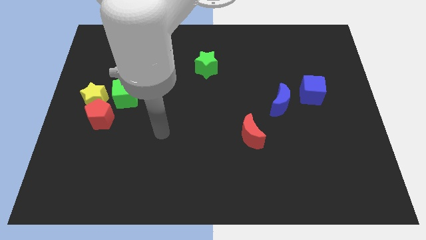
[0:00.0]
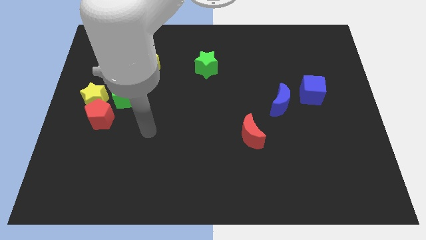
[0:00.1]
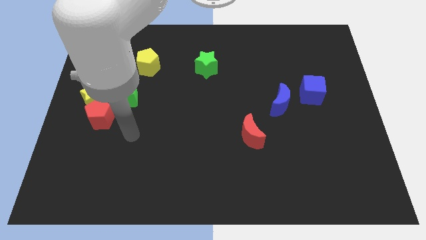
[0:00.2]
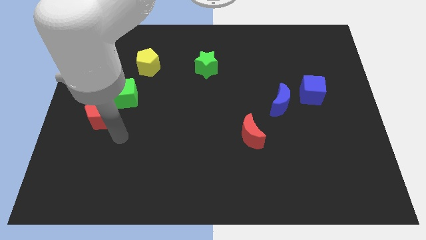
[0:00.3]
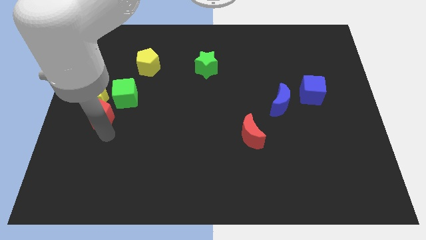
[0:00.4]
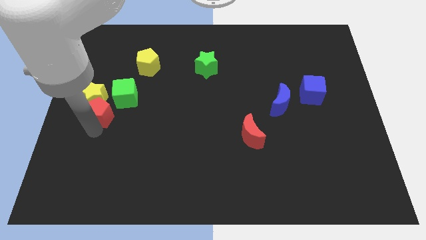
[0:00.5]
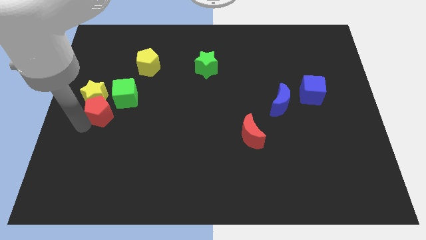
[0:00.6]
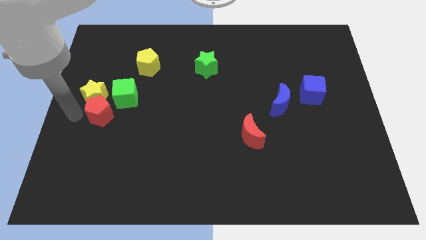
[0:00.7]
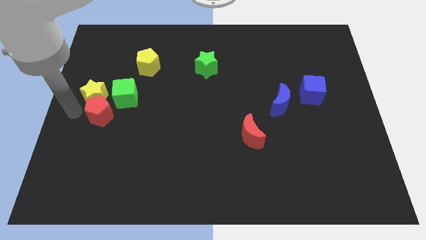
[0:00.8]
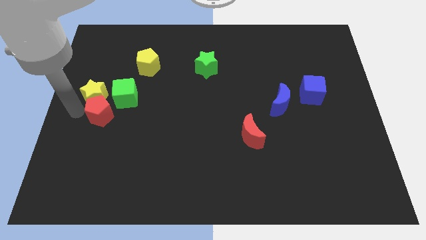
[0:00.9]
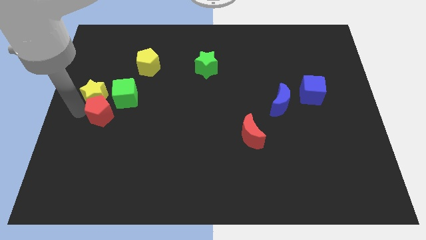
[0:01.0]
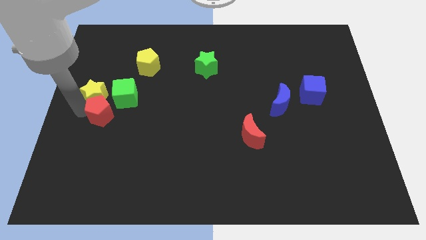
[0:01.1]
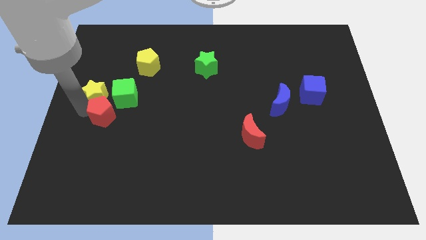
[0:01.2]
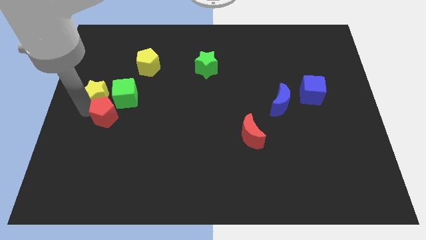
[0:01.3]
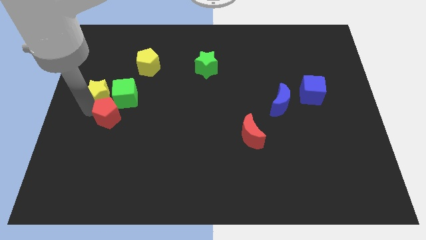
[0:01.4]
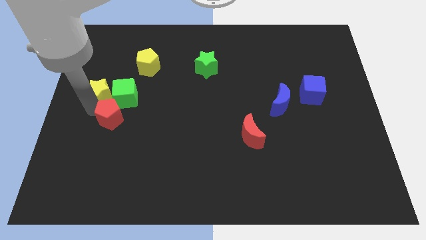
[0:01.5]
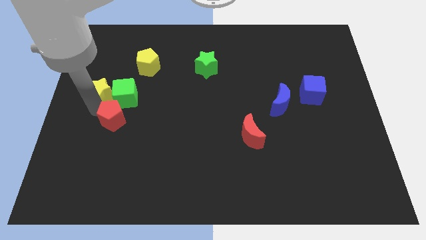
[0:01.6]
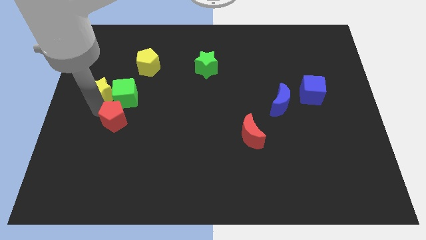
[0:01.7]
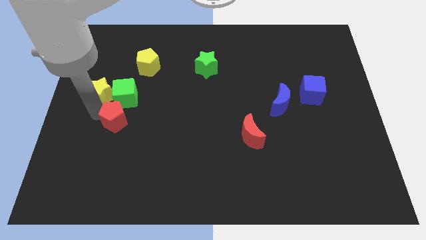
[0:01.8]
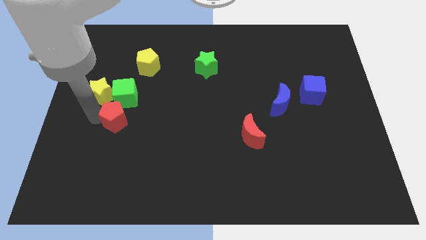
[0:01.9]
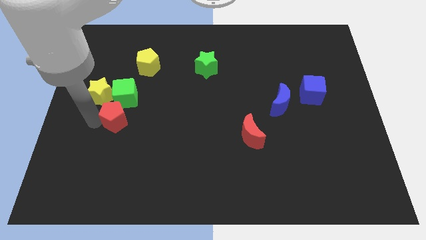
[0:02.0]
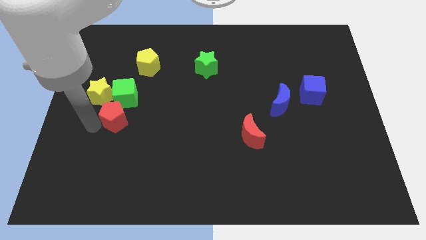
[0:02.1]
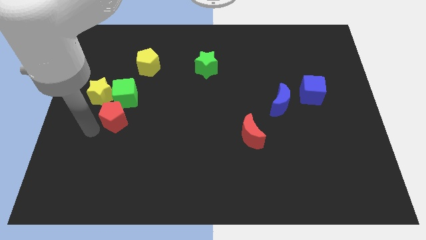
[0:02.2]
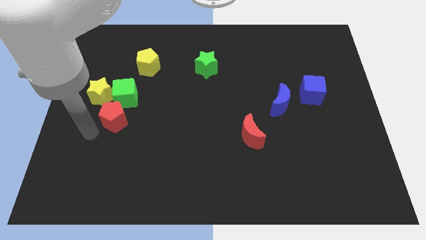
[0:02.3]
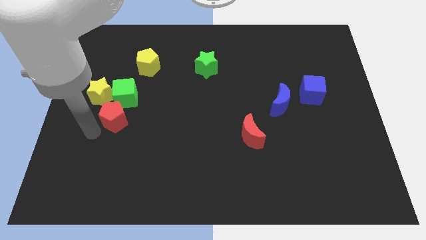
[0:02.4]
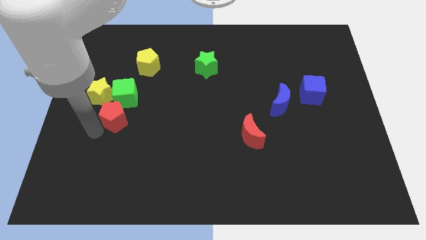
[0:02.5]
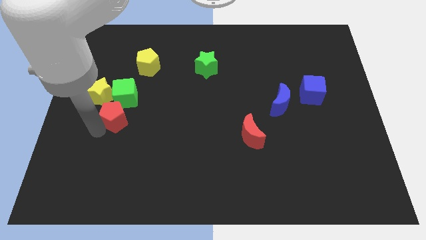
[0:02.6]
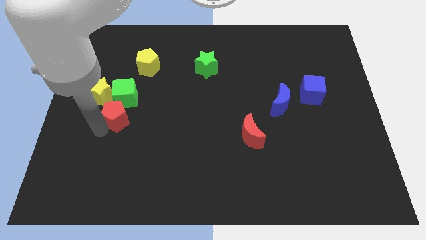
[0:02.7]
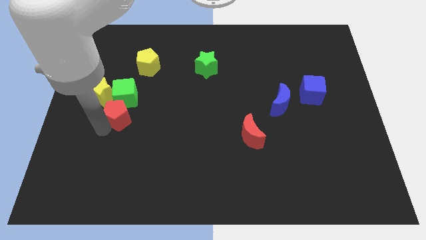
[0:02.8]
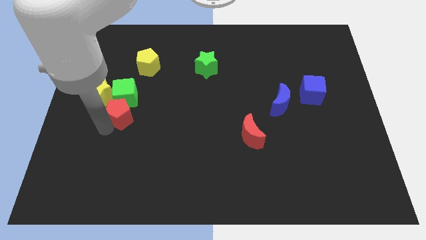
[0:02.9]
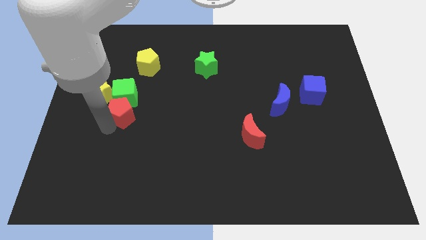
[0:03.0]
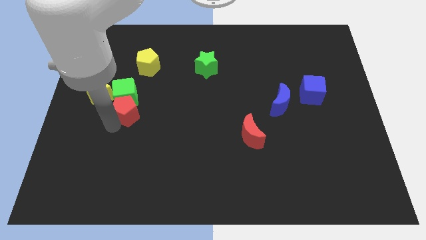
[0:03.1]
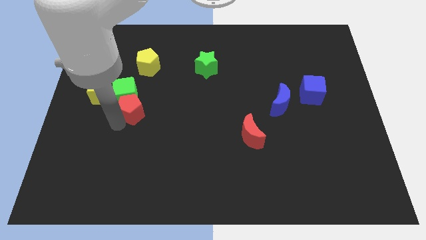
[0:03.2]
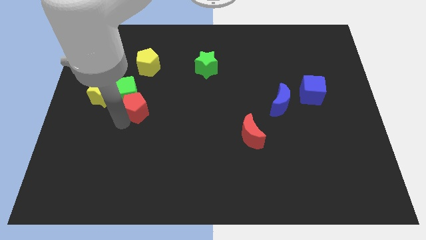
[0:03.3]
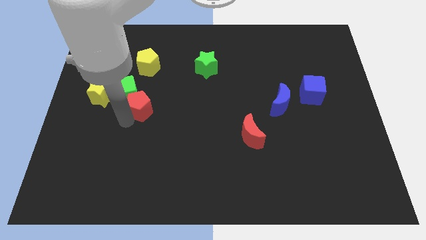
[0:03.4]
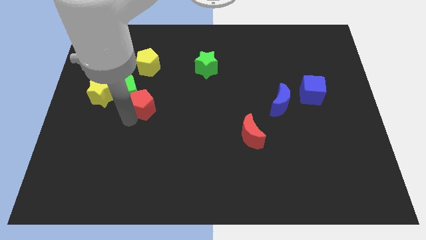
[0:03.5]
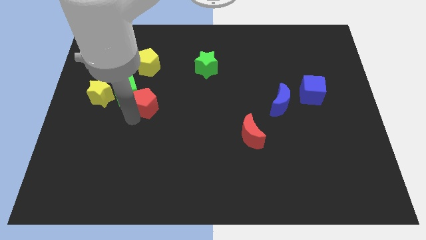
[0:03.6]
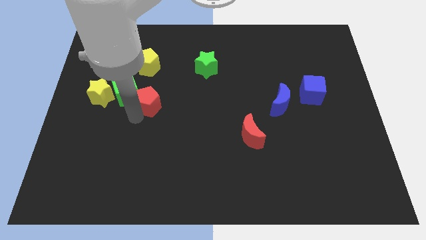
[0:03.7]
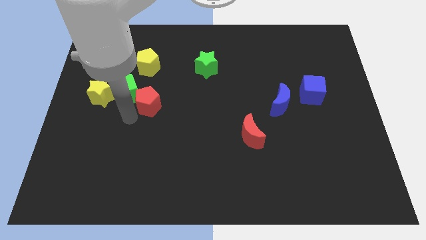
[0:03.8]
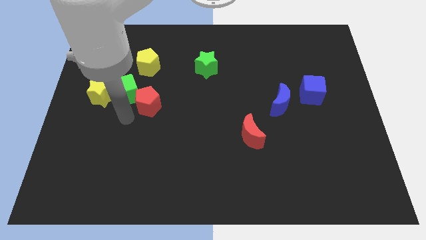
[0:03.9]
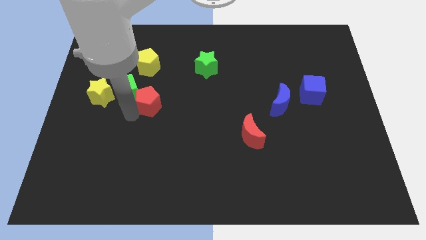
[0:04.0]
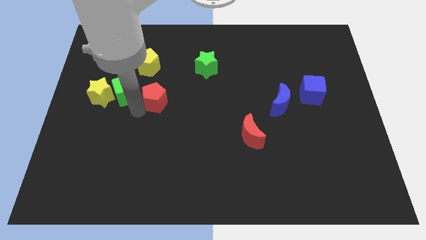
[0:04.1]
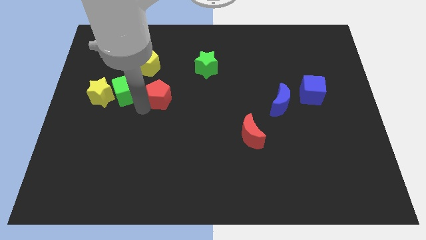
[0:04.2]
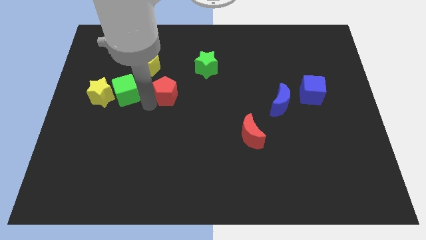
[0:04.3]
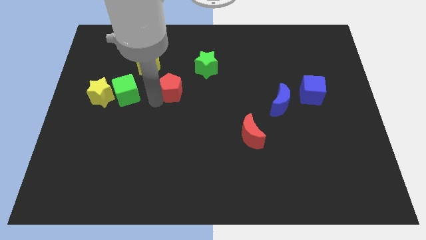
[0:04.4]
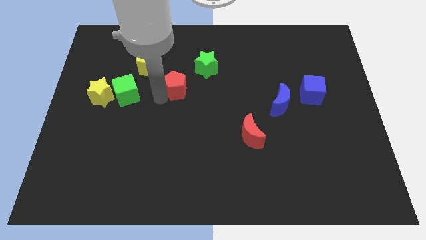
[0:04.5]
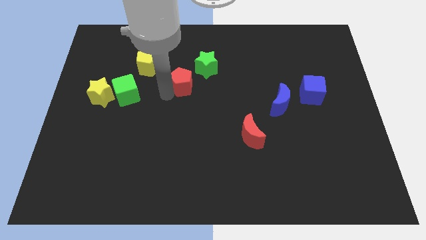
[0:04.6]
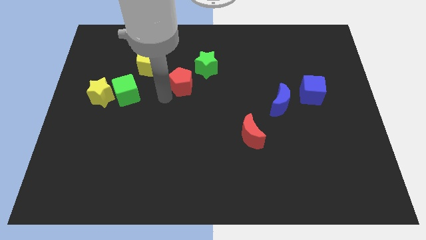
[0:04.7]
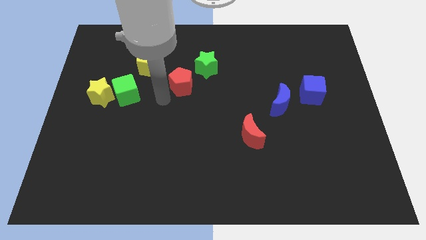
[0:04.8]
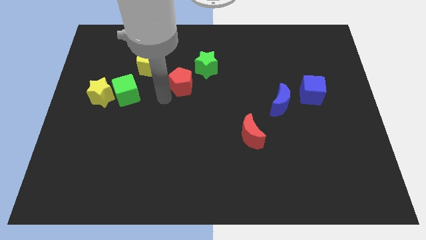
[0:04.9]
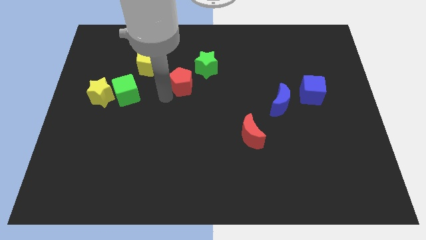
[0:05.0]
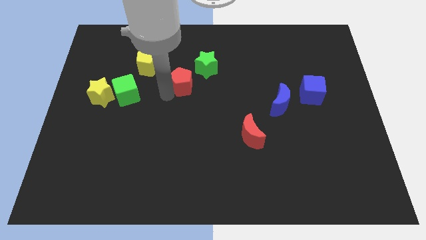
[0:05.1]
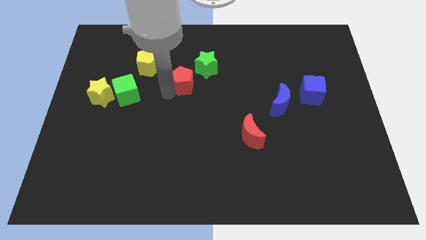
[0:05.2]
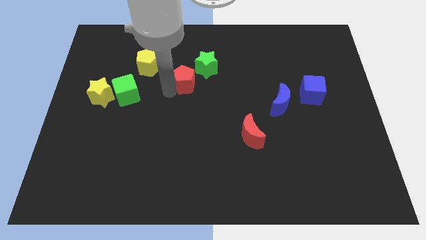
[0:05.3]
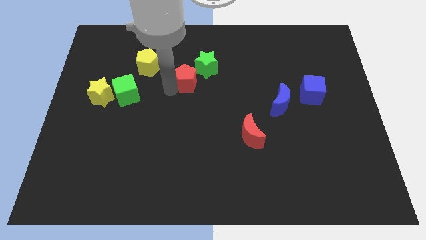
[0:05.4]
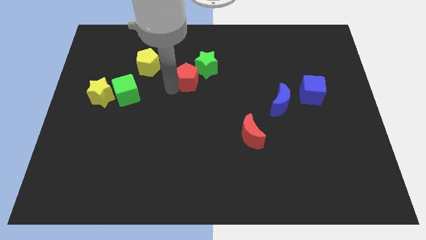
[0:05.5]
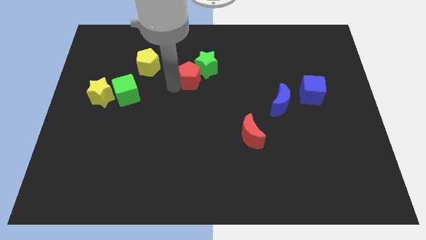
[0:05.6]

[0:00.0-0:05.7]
put the red pentagon towards the green star

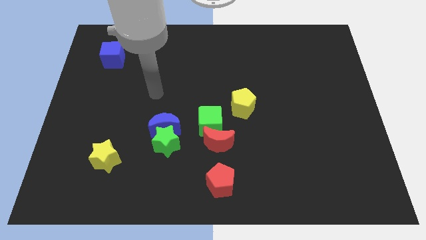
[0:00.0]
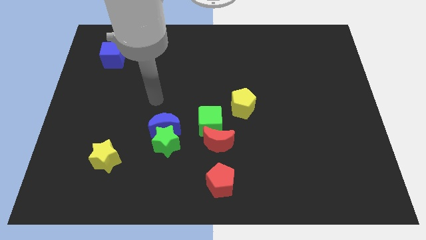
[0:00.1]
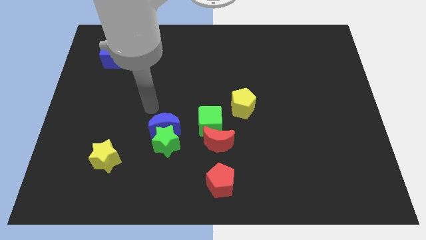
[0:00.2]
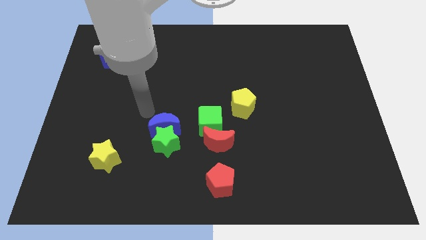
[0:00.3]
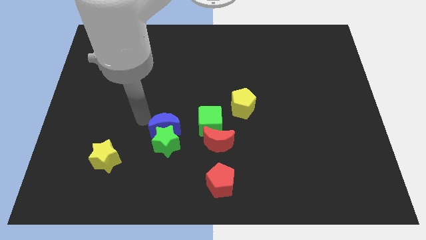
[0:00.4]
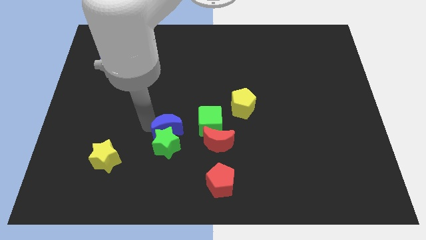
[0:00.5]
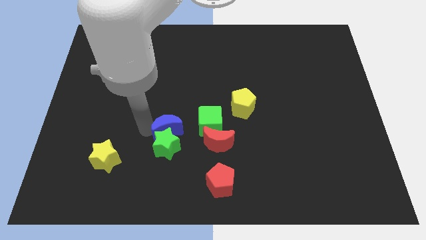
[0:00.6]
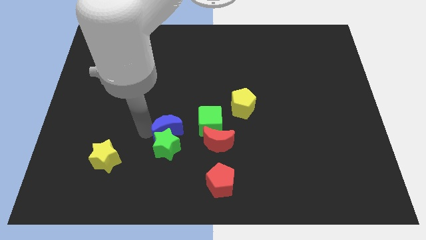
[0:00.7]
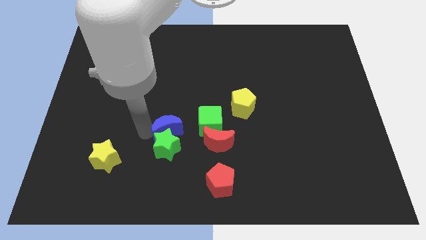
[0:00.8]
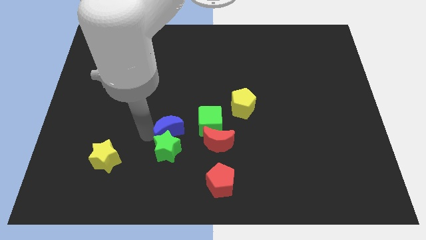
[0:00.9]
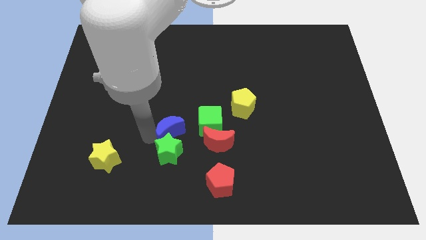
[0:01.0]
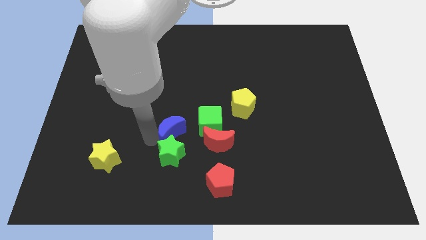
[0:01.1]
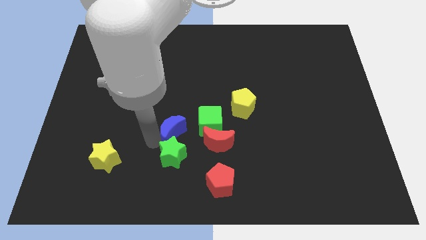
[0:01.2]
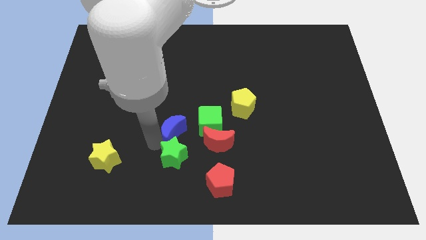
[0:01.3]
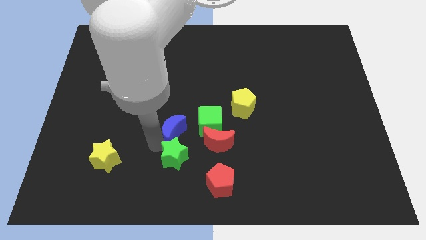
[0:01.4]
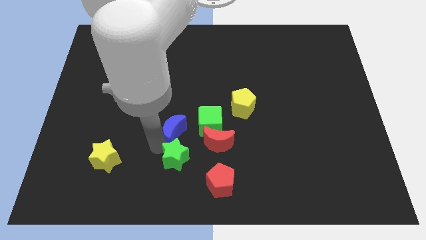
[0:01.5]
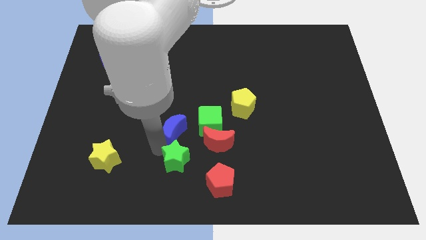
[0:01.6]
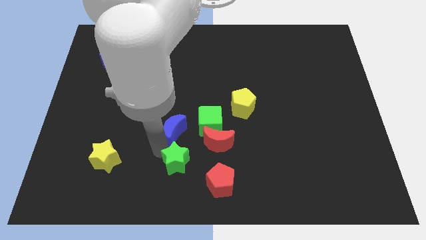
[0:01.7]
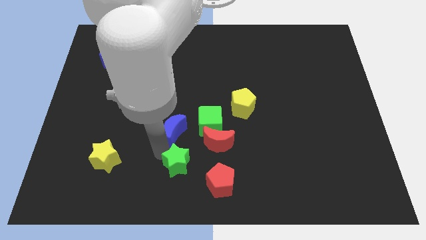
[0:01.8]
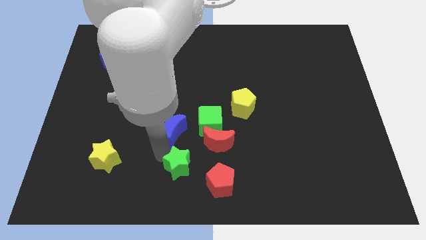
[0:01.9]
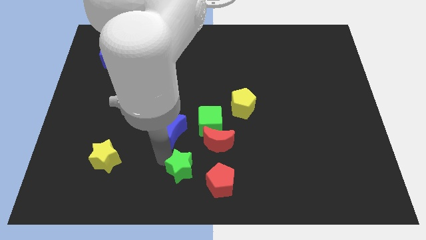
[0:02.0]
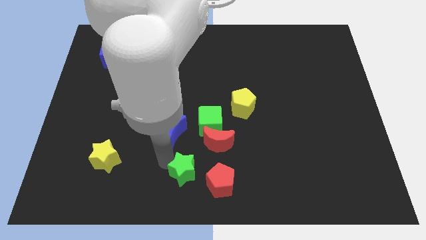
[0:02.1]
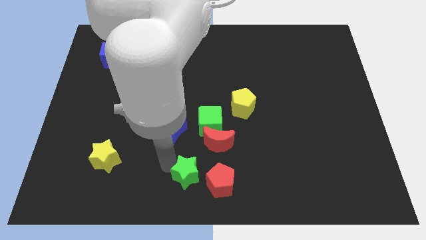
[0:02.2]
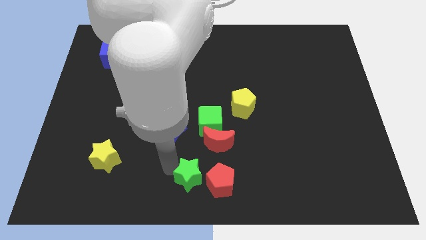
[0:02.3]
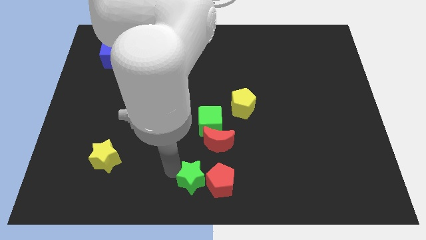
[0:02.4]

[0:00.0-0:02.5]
push the green star next to the red pentagon

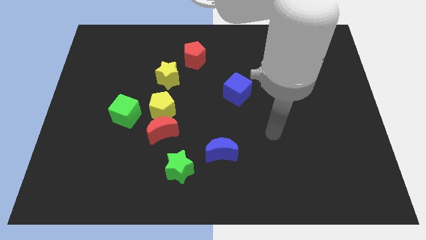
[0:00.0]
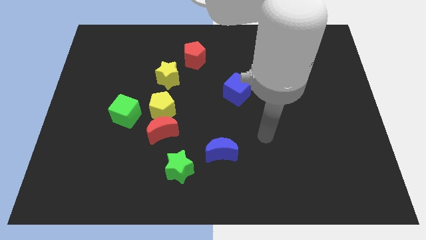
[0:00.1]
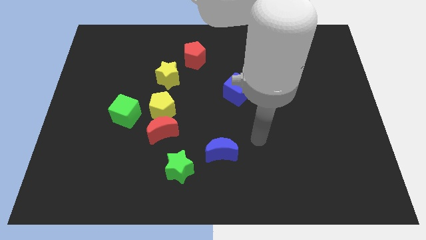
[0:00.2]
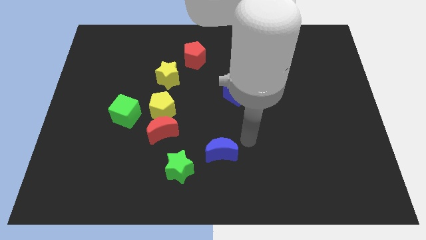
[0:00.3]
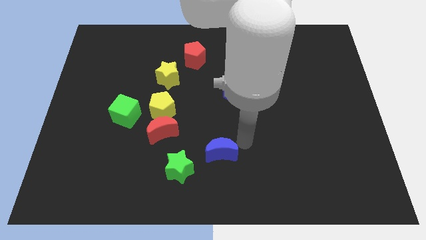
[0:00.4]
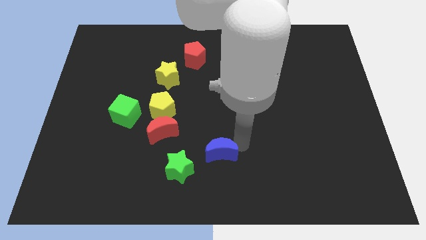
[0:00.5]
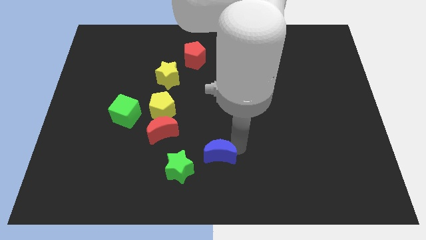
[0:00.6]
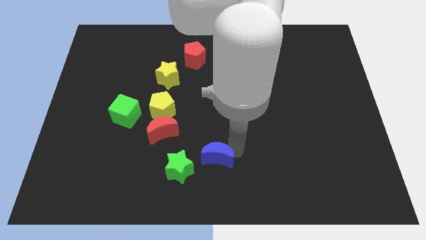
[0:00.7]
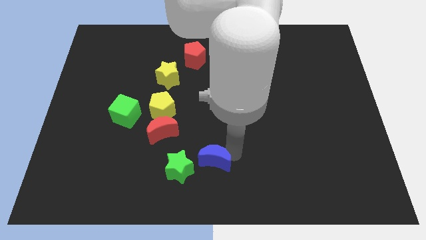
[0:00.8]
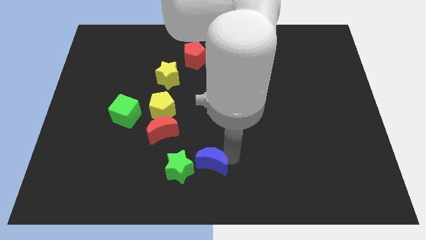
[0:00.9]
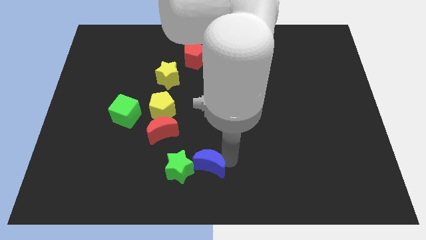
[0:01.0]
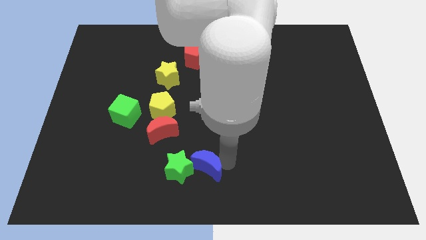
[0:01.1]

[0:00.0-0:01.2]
move the blue moon close to the green star
